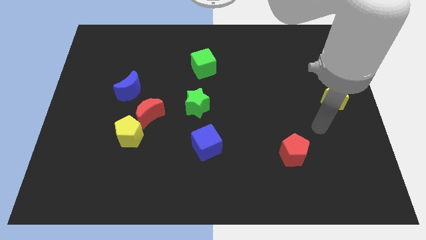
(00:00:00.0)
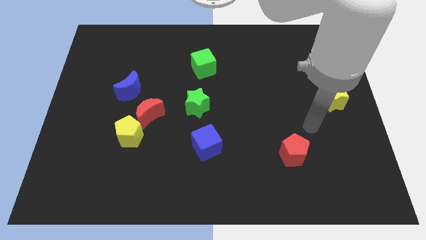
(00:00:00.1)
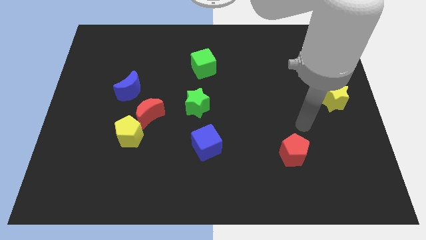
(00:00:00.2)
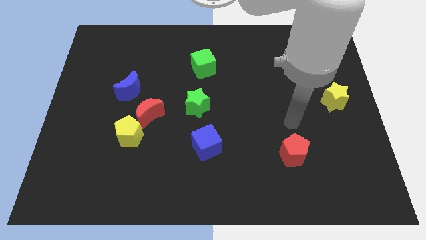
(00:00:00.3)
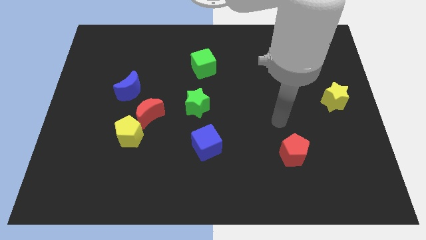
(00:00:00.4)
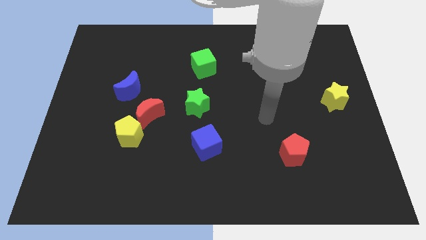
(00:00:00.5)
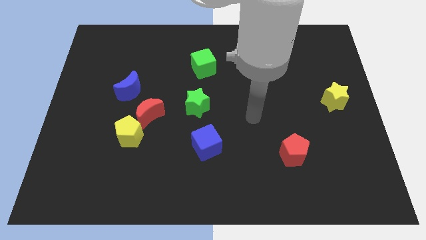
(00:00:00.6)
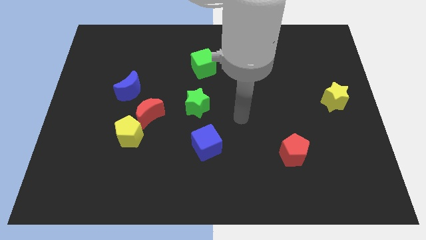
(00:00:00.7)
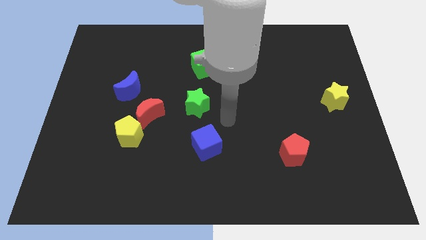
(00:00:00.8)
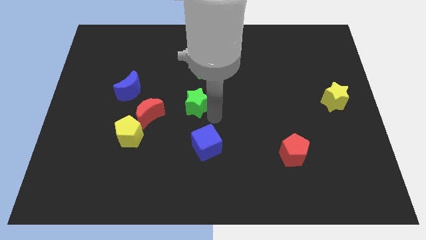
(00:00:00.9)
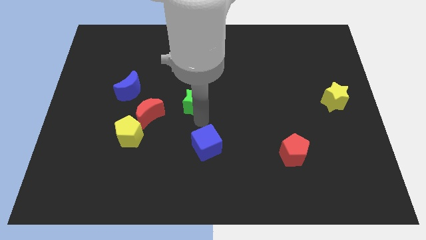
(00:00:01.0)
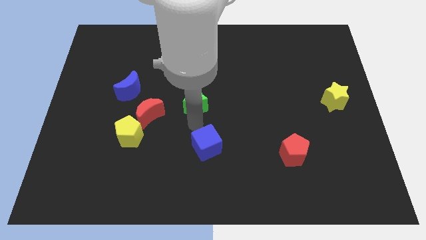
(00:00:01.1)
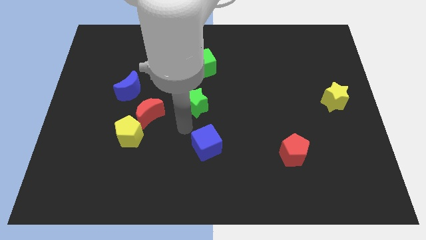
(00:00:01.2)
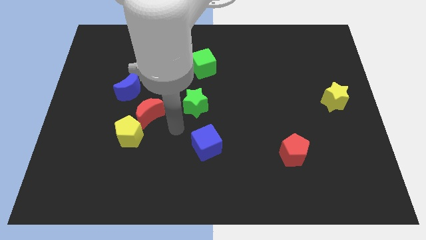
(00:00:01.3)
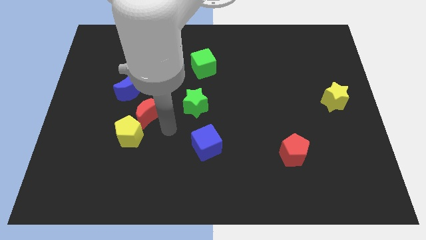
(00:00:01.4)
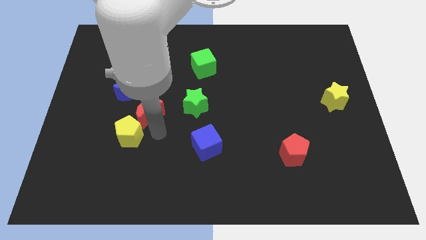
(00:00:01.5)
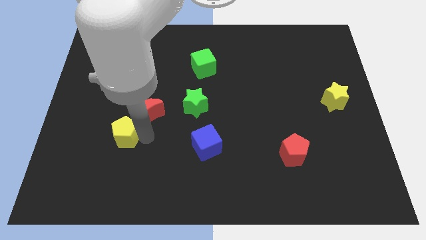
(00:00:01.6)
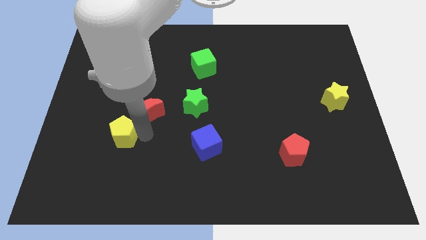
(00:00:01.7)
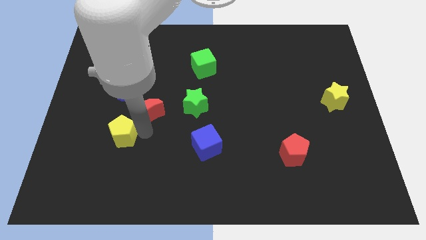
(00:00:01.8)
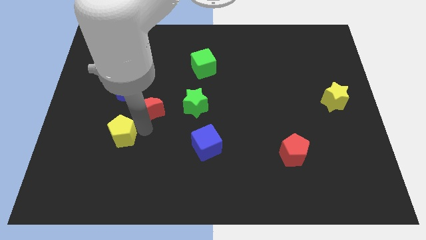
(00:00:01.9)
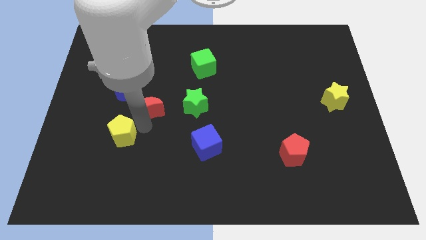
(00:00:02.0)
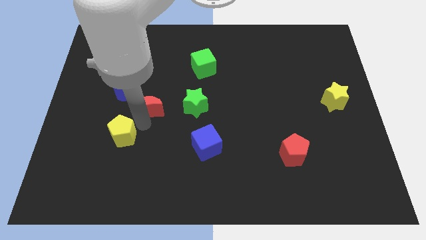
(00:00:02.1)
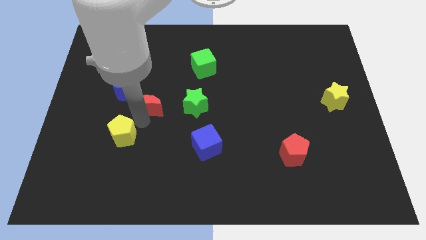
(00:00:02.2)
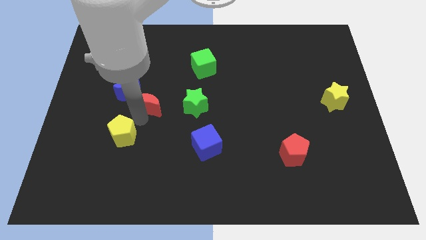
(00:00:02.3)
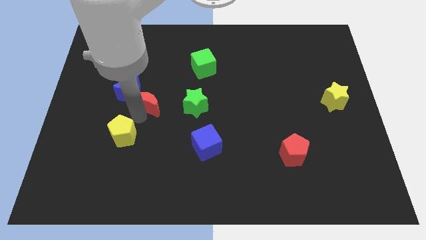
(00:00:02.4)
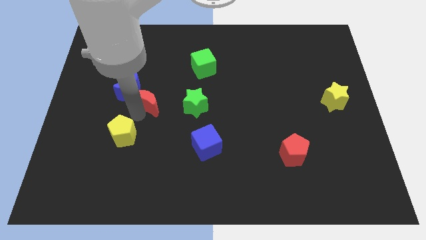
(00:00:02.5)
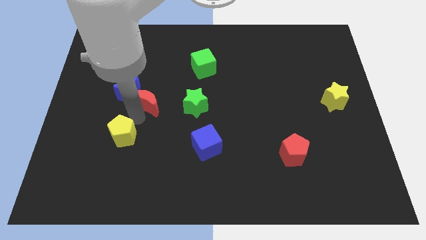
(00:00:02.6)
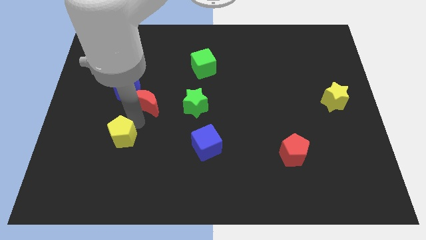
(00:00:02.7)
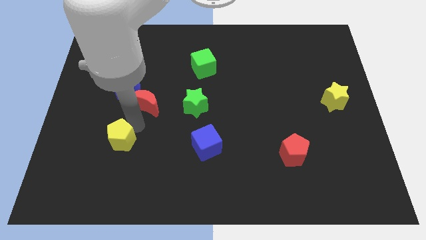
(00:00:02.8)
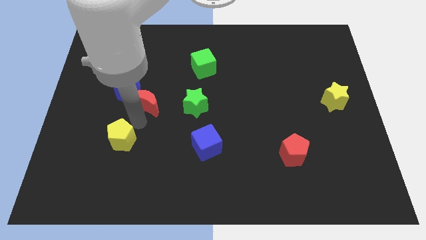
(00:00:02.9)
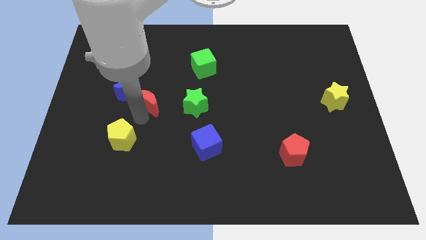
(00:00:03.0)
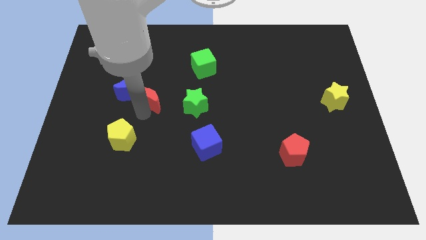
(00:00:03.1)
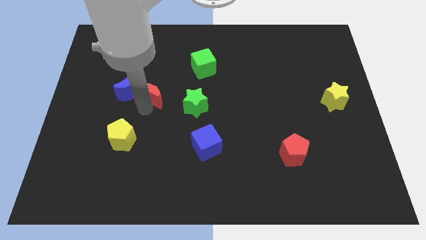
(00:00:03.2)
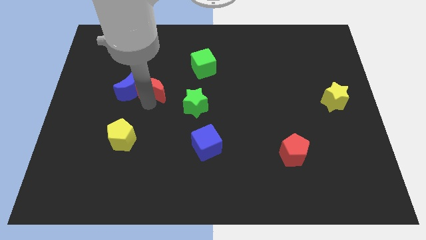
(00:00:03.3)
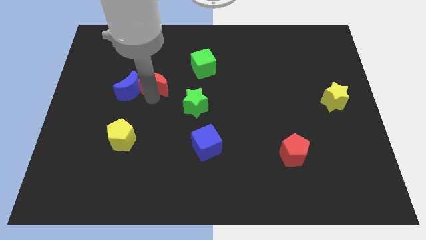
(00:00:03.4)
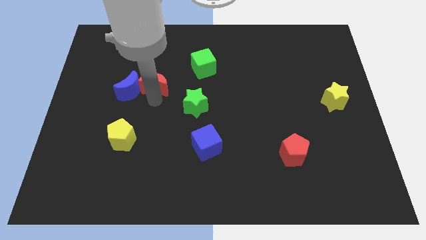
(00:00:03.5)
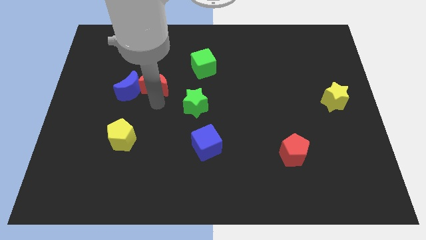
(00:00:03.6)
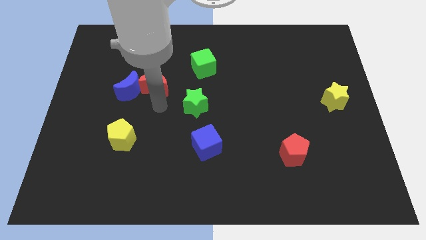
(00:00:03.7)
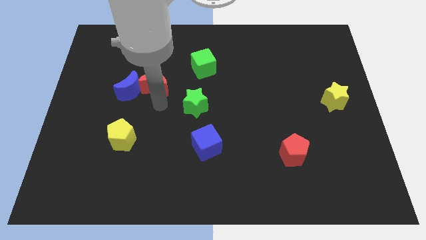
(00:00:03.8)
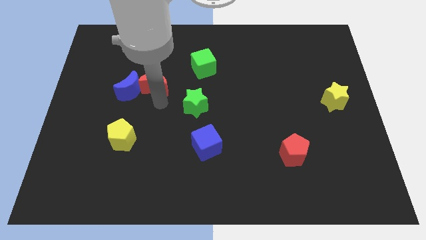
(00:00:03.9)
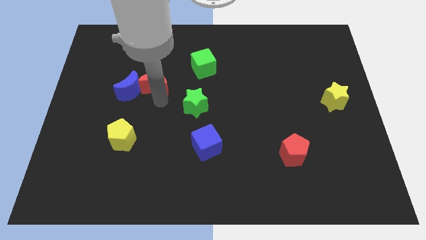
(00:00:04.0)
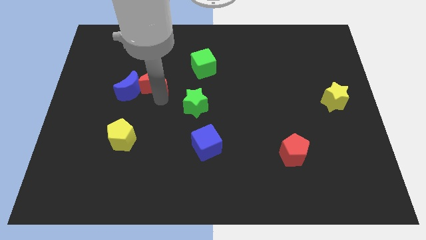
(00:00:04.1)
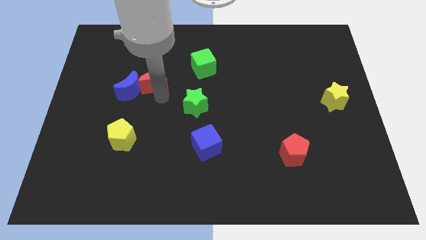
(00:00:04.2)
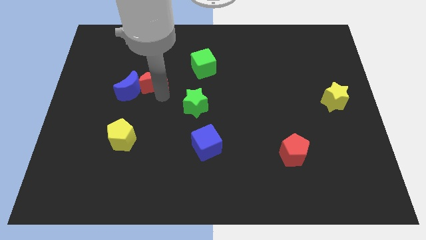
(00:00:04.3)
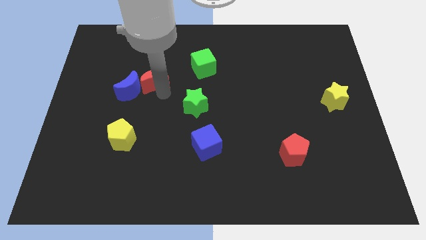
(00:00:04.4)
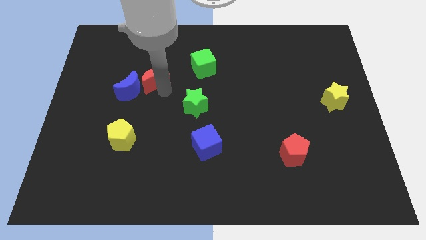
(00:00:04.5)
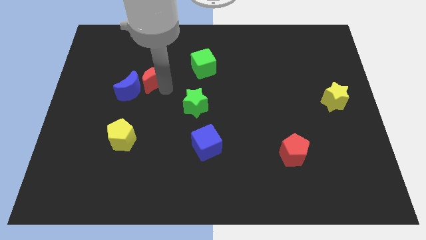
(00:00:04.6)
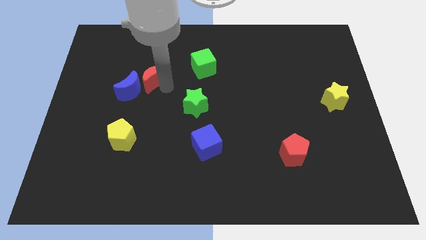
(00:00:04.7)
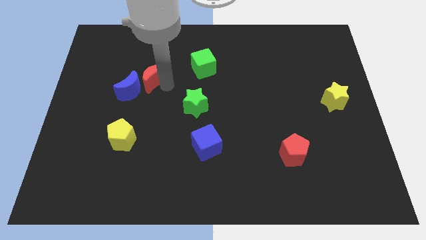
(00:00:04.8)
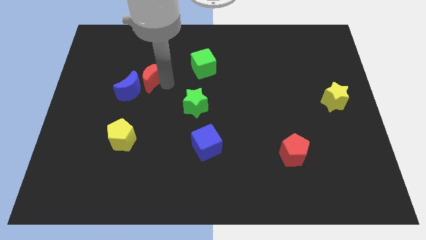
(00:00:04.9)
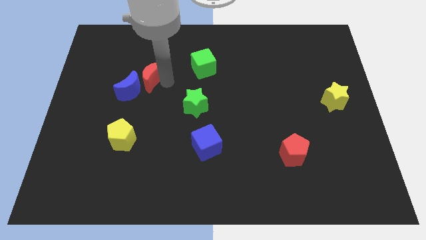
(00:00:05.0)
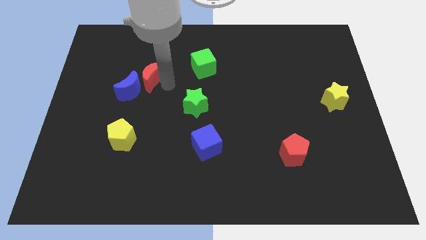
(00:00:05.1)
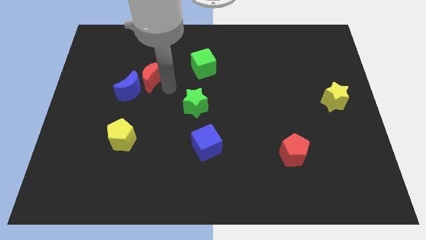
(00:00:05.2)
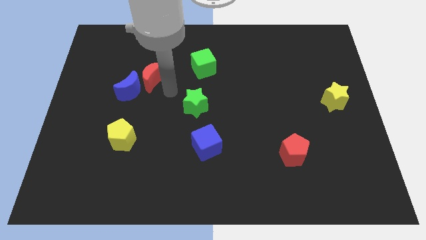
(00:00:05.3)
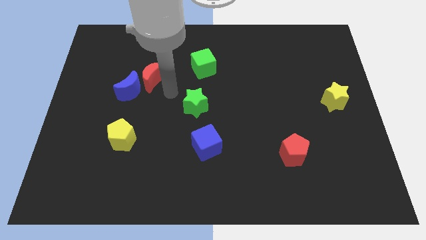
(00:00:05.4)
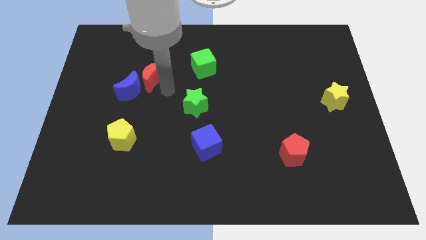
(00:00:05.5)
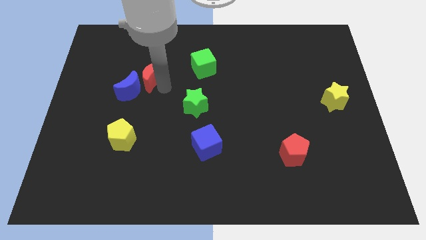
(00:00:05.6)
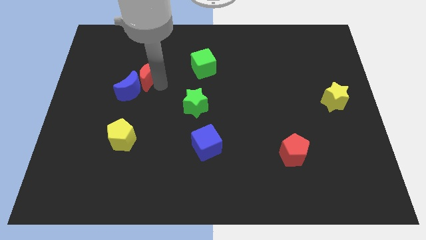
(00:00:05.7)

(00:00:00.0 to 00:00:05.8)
put the red moon to the top side of the blue moon

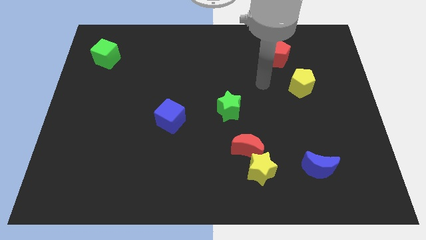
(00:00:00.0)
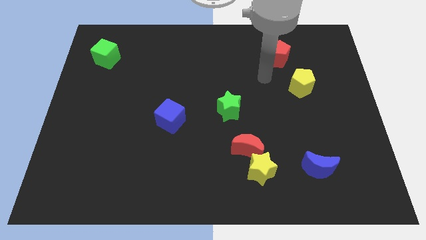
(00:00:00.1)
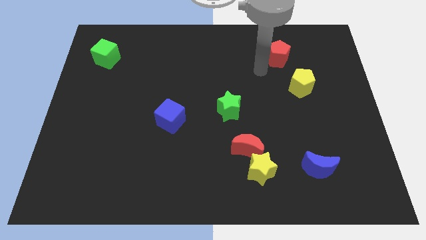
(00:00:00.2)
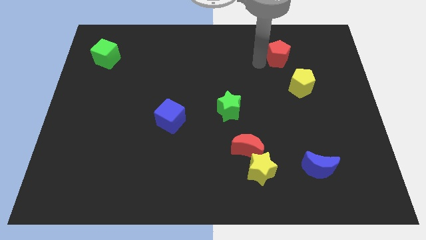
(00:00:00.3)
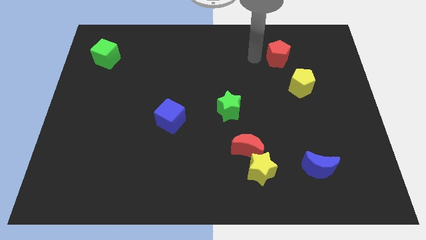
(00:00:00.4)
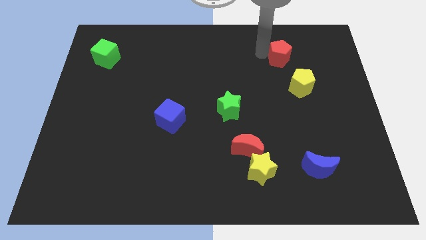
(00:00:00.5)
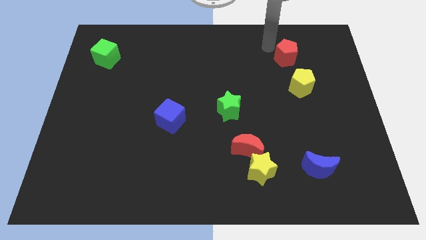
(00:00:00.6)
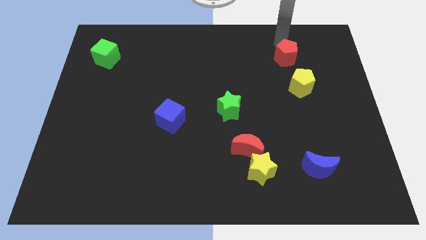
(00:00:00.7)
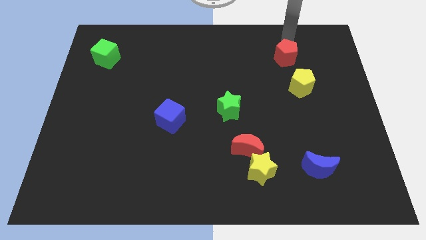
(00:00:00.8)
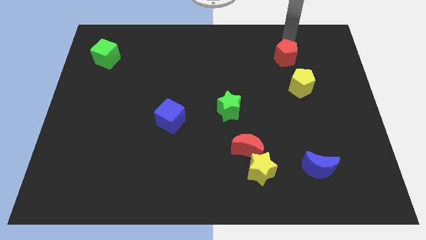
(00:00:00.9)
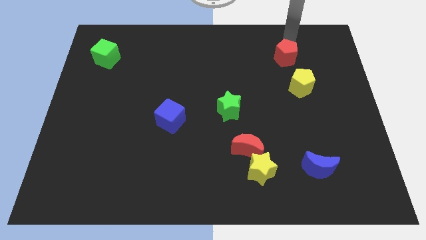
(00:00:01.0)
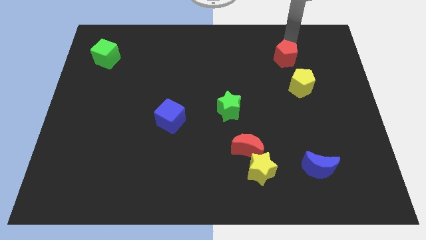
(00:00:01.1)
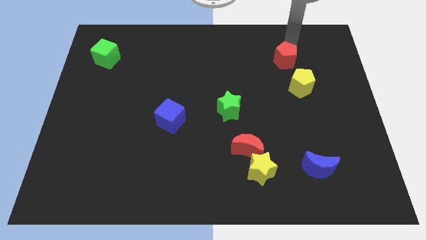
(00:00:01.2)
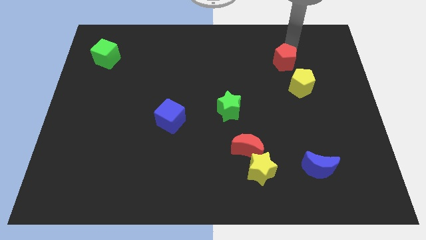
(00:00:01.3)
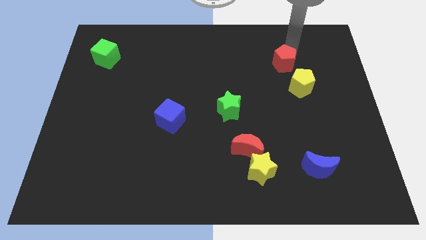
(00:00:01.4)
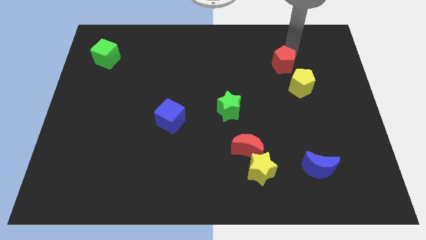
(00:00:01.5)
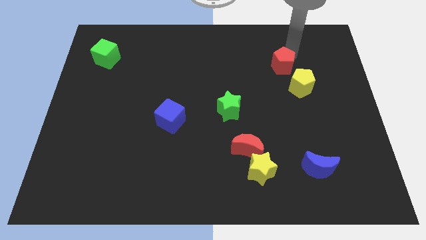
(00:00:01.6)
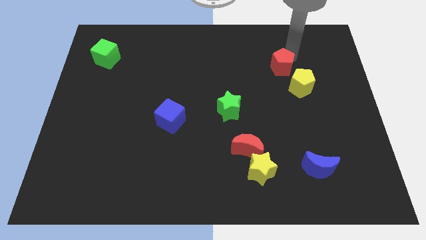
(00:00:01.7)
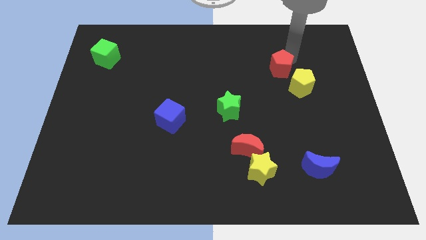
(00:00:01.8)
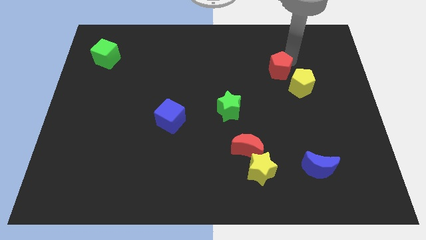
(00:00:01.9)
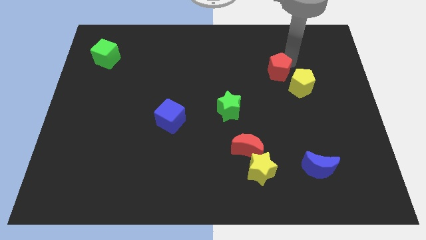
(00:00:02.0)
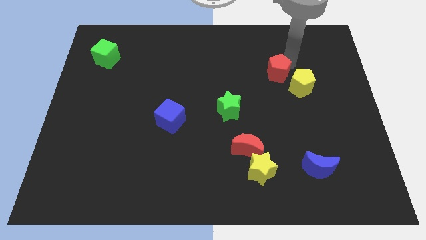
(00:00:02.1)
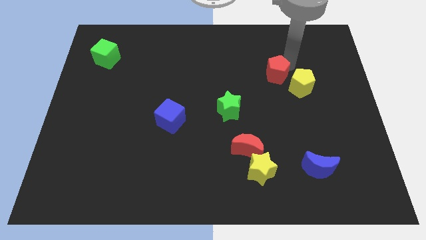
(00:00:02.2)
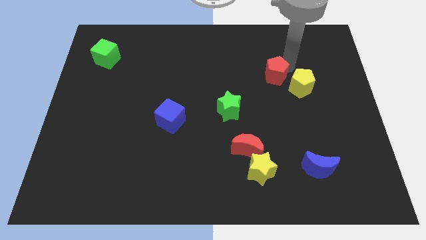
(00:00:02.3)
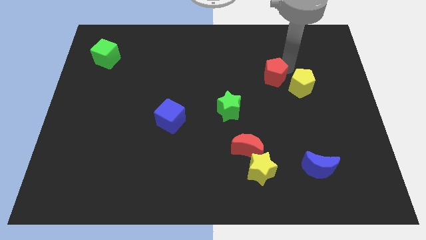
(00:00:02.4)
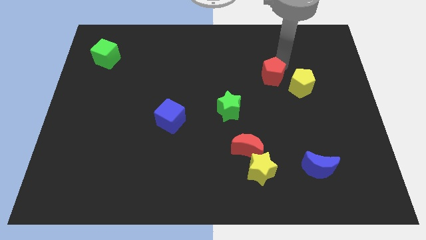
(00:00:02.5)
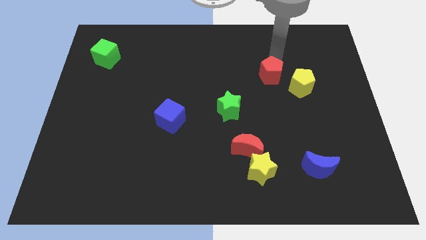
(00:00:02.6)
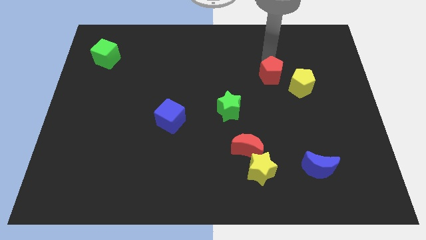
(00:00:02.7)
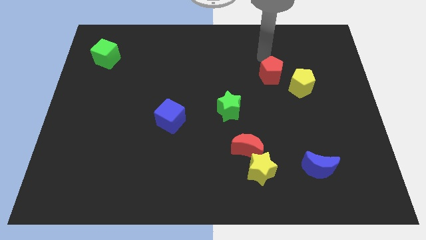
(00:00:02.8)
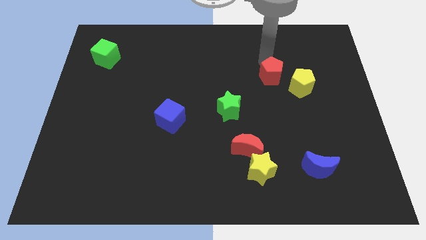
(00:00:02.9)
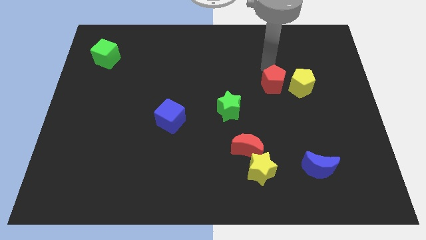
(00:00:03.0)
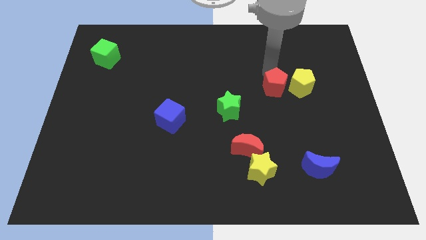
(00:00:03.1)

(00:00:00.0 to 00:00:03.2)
put the red pentagon to the bottom left side of the yellow pentagon
